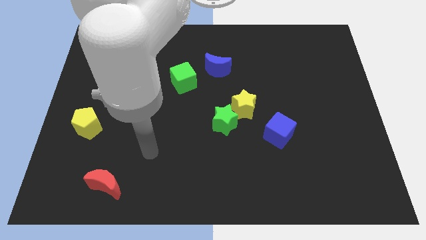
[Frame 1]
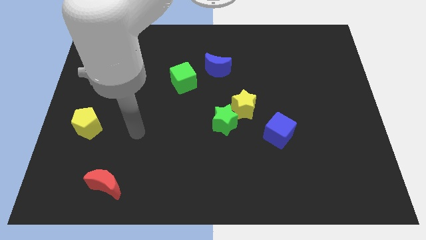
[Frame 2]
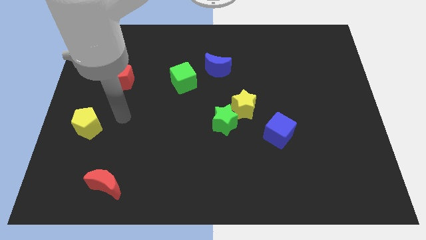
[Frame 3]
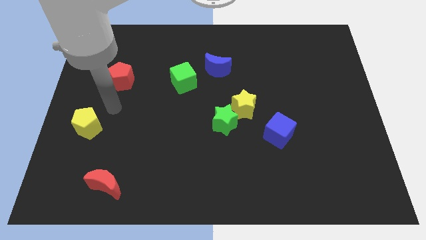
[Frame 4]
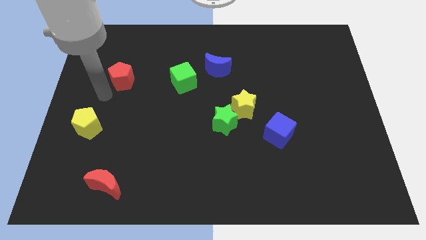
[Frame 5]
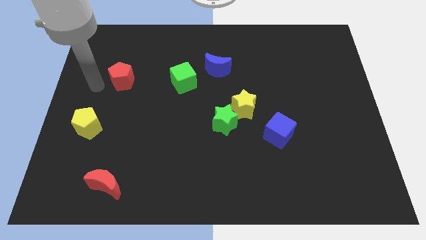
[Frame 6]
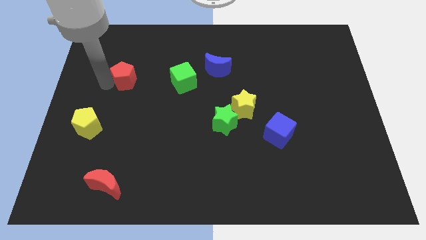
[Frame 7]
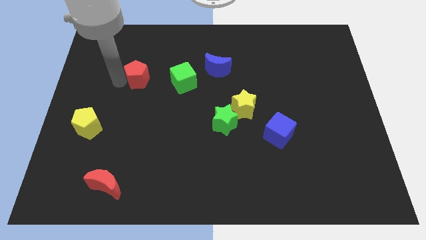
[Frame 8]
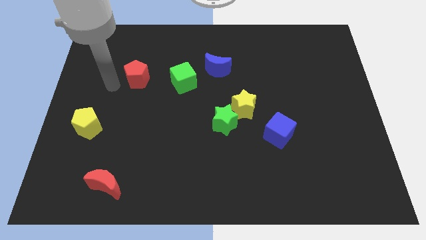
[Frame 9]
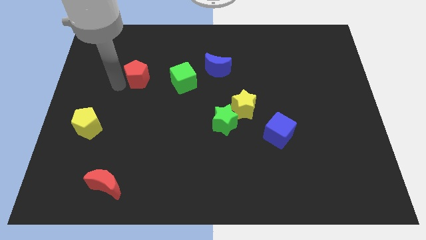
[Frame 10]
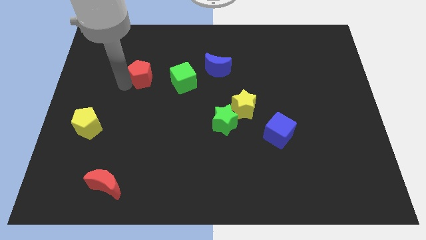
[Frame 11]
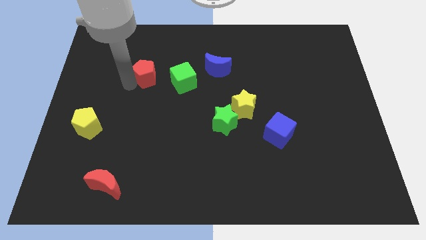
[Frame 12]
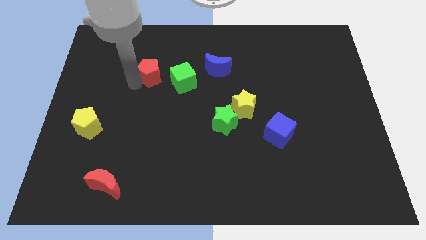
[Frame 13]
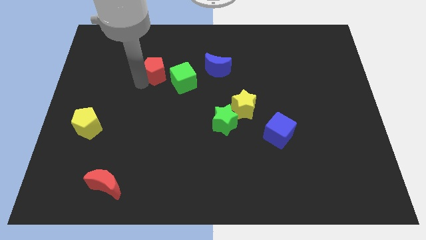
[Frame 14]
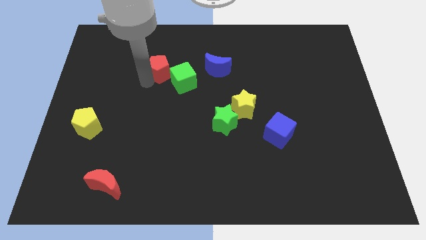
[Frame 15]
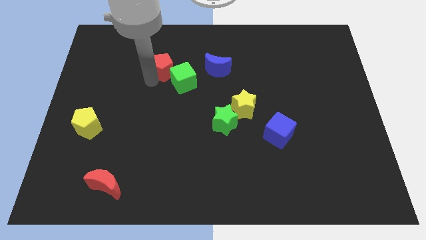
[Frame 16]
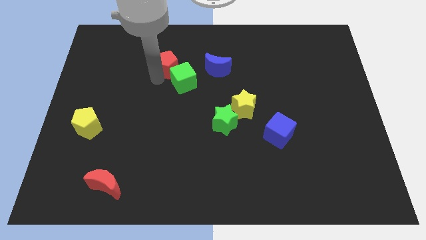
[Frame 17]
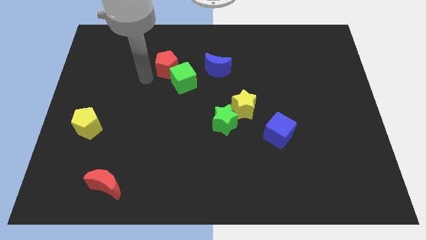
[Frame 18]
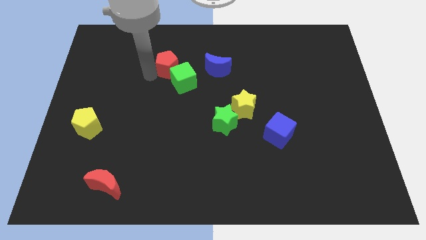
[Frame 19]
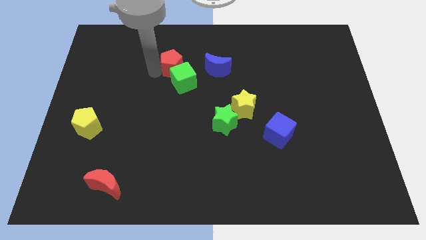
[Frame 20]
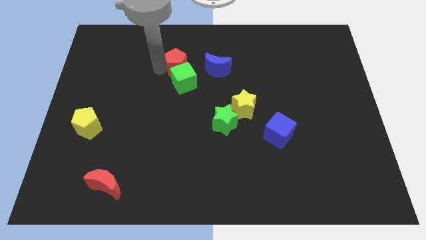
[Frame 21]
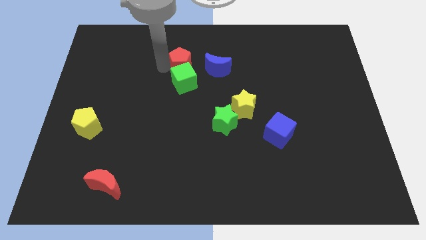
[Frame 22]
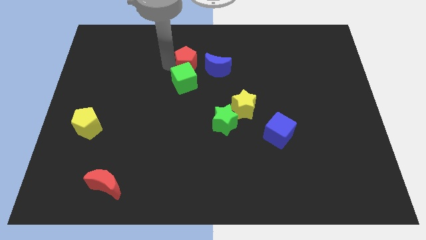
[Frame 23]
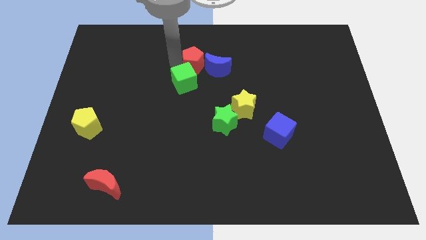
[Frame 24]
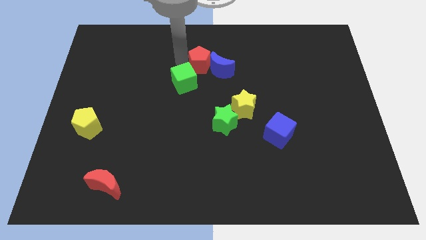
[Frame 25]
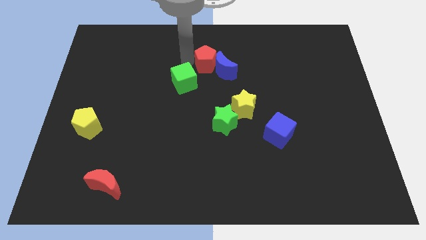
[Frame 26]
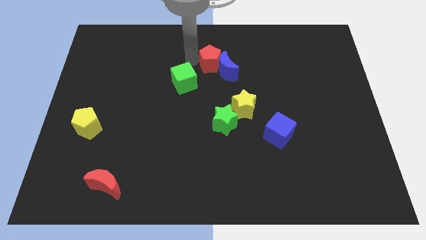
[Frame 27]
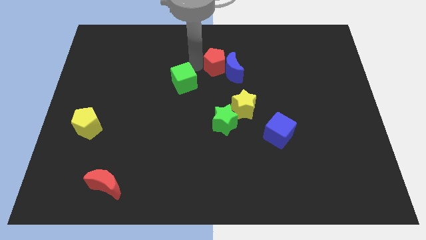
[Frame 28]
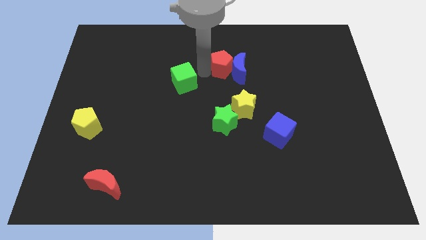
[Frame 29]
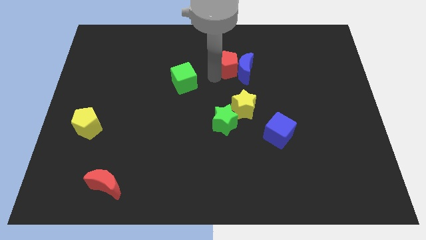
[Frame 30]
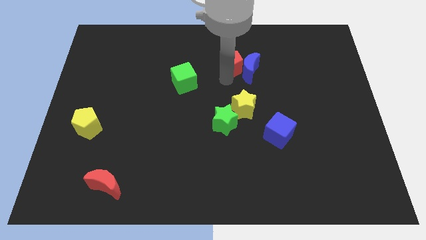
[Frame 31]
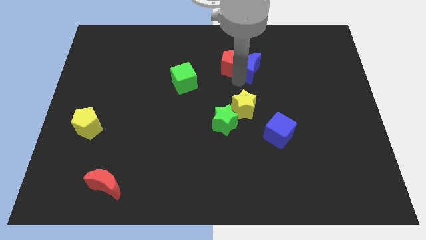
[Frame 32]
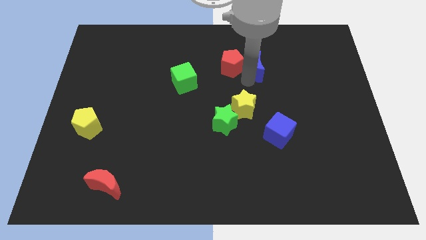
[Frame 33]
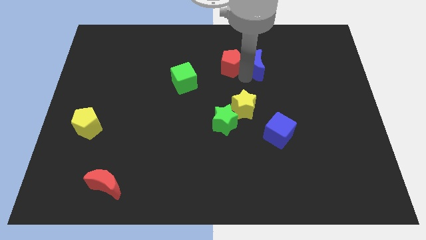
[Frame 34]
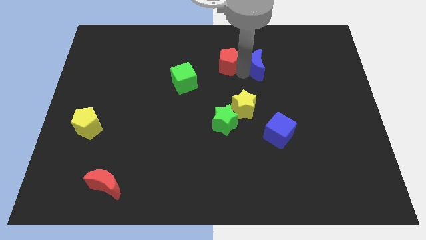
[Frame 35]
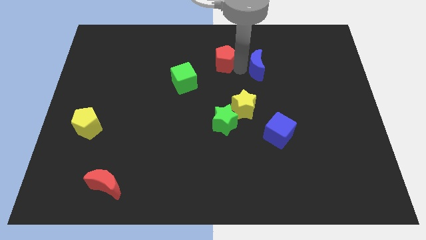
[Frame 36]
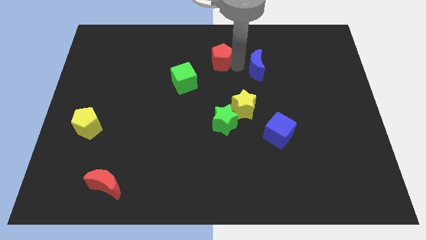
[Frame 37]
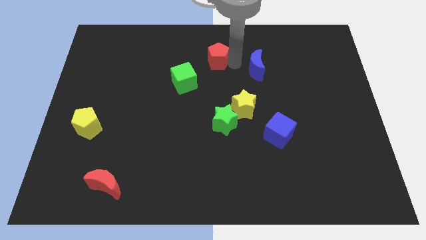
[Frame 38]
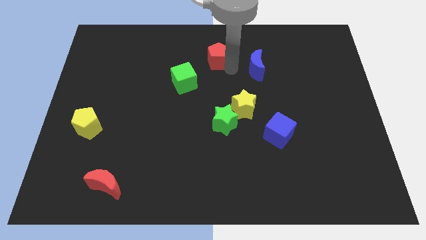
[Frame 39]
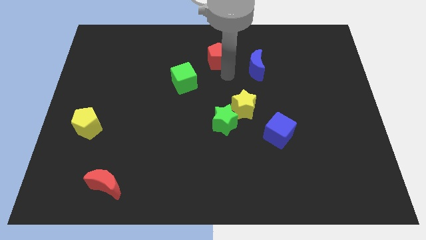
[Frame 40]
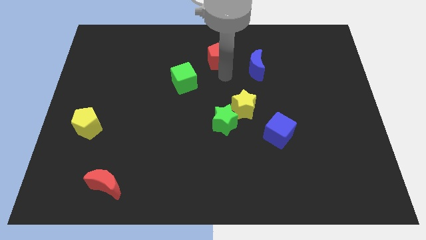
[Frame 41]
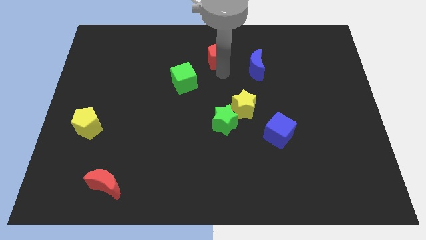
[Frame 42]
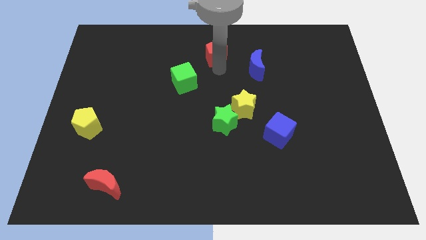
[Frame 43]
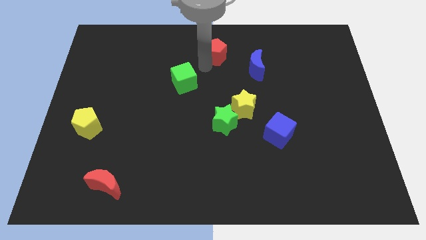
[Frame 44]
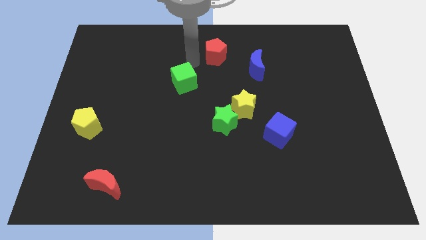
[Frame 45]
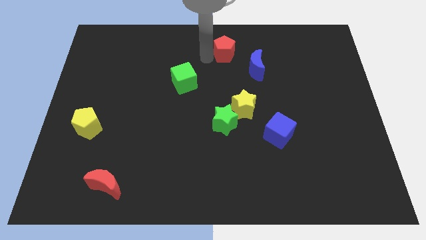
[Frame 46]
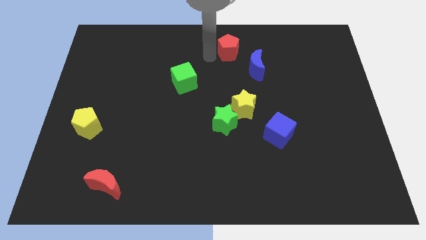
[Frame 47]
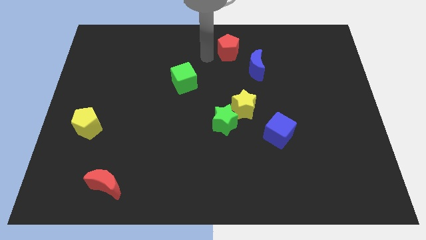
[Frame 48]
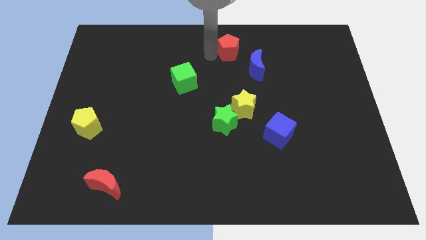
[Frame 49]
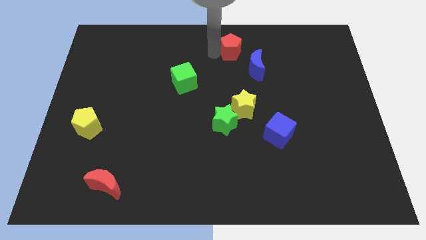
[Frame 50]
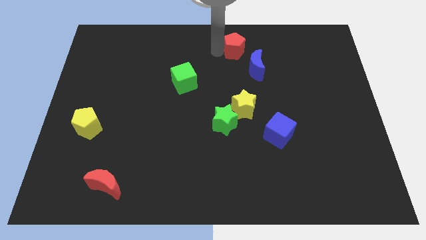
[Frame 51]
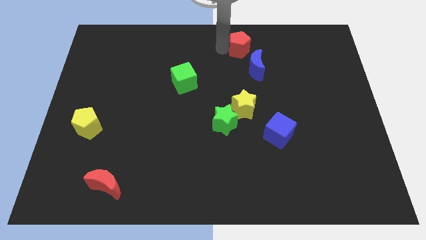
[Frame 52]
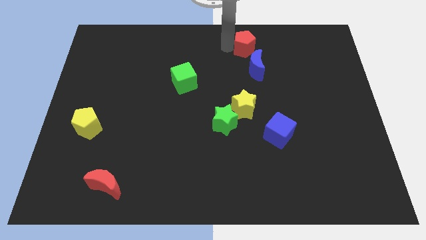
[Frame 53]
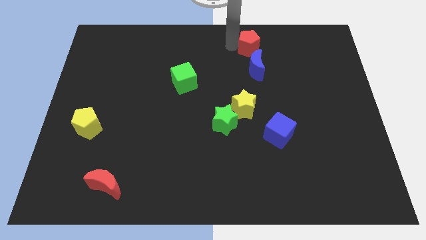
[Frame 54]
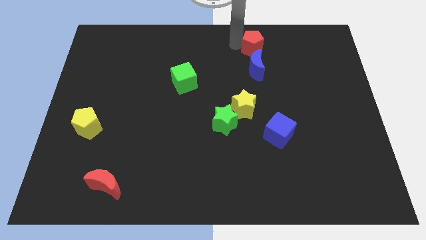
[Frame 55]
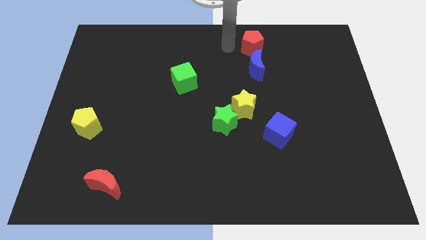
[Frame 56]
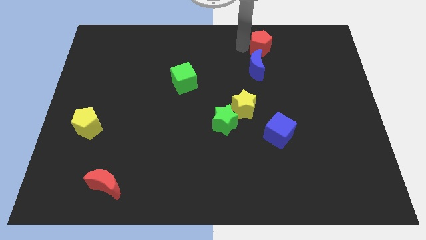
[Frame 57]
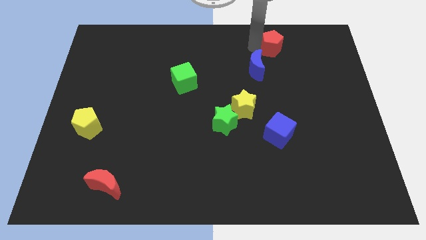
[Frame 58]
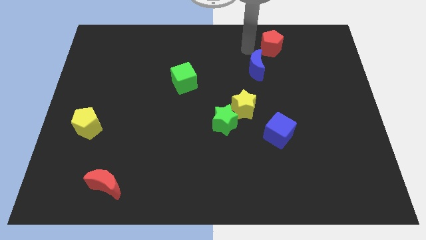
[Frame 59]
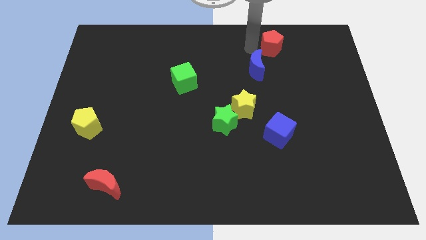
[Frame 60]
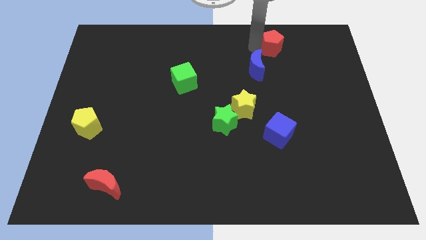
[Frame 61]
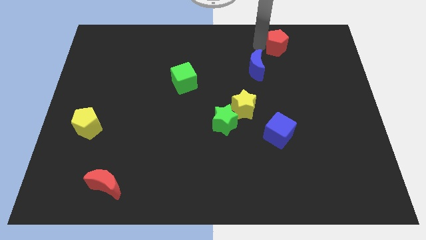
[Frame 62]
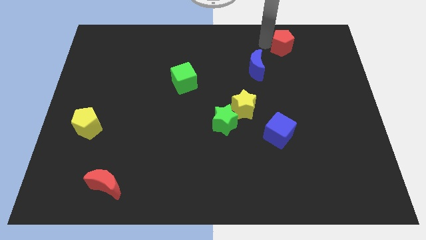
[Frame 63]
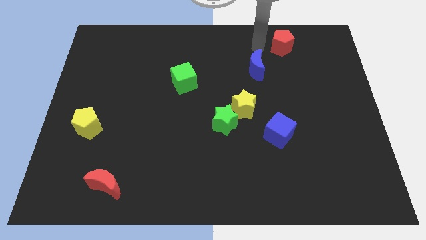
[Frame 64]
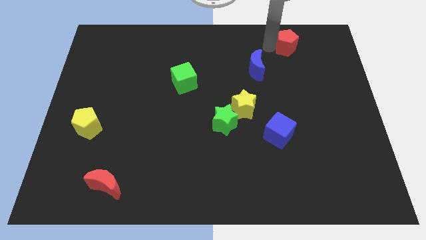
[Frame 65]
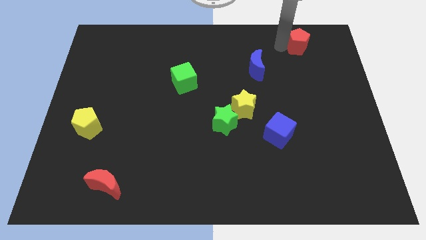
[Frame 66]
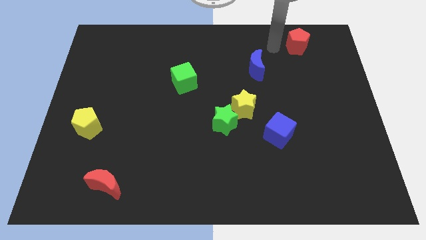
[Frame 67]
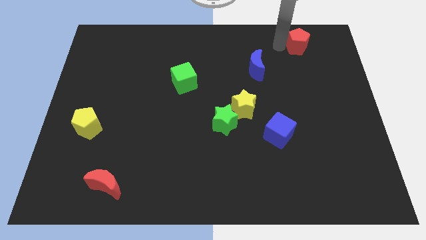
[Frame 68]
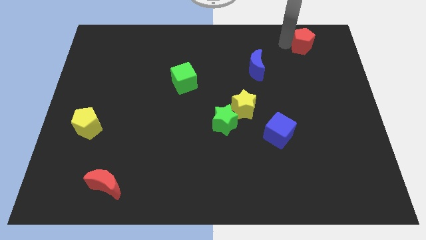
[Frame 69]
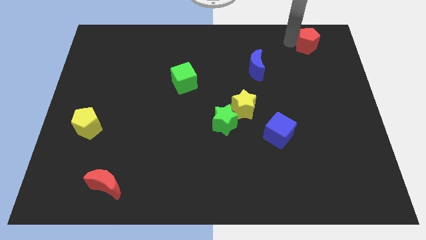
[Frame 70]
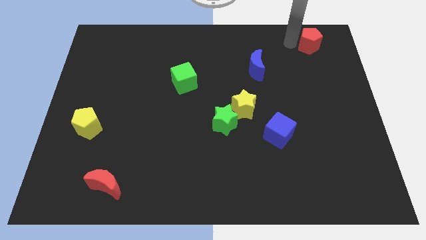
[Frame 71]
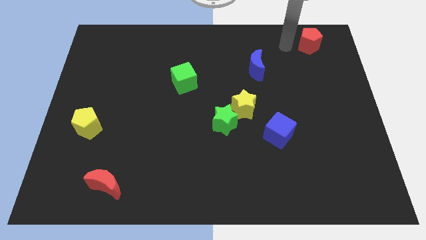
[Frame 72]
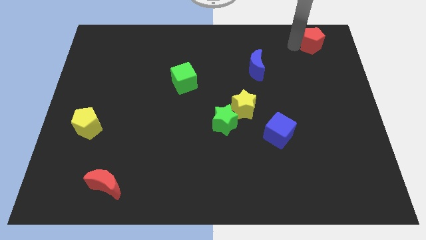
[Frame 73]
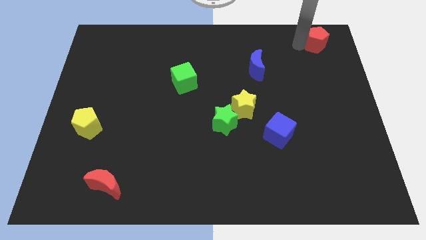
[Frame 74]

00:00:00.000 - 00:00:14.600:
slide the red pentagon to the upper right corner
